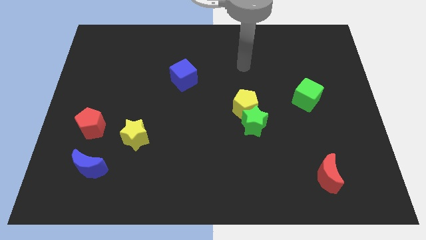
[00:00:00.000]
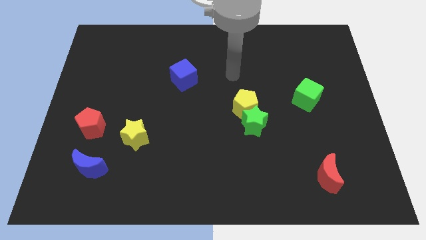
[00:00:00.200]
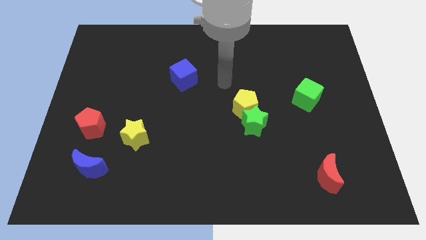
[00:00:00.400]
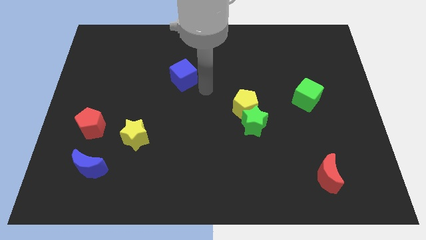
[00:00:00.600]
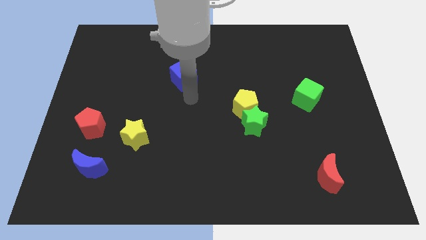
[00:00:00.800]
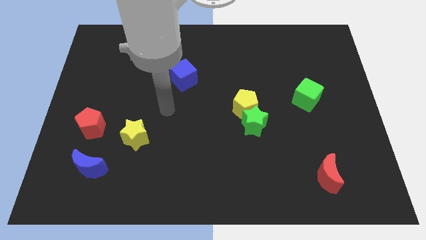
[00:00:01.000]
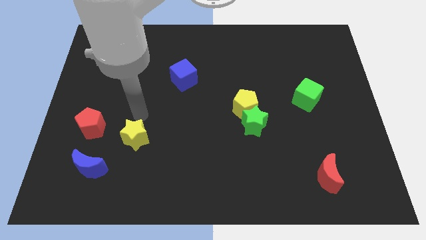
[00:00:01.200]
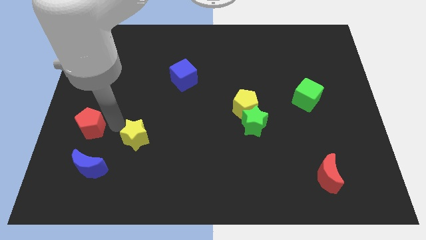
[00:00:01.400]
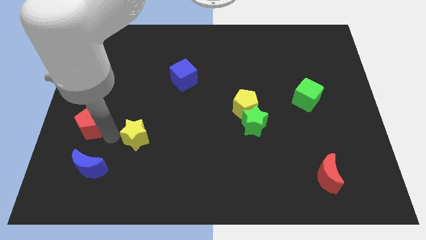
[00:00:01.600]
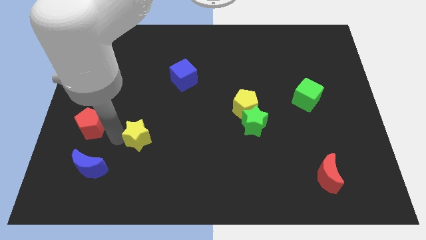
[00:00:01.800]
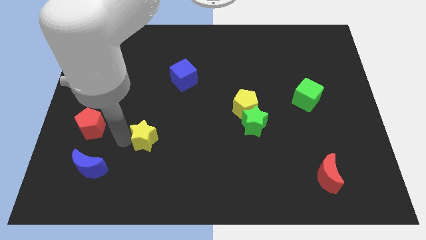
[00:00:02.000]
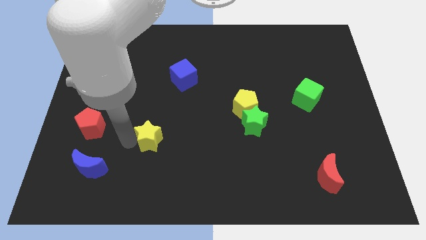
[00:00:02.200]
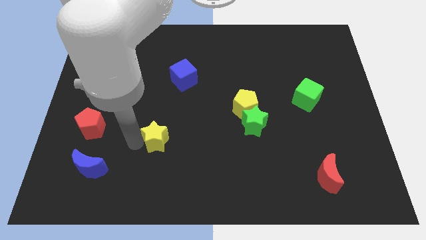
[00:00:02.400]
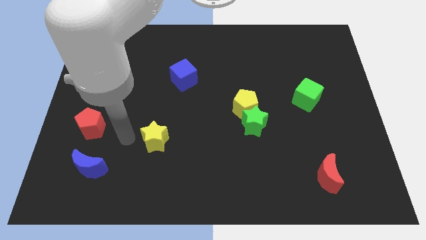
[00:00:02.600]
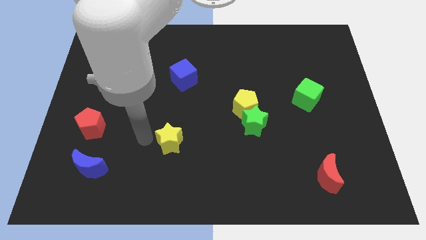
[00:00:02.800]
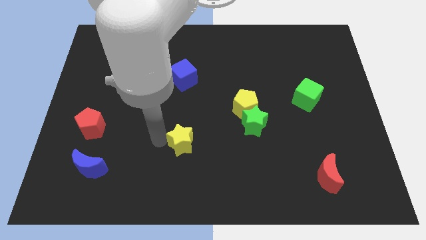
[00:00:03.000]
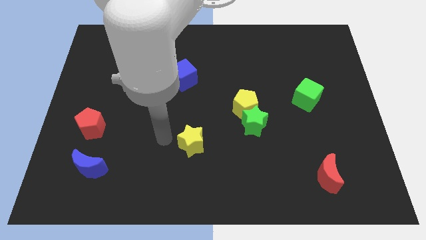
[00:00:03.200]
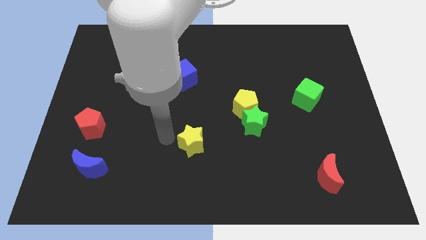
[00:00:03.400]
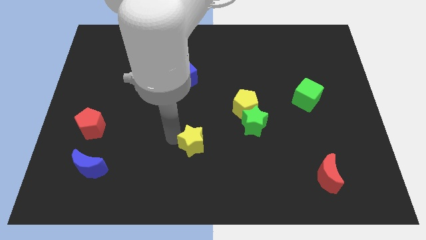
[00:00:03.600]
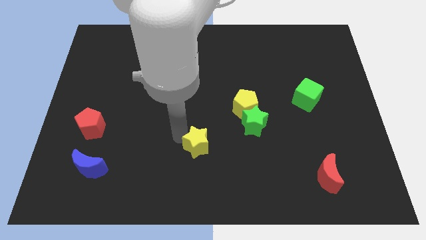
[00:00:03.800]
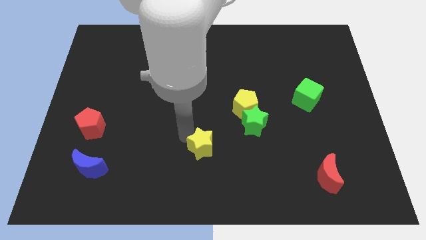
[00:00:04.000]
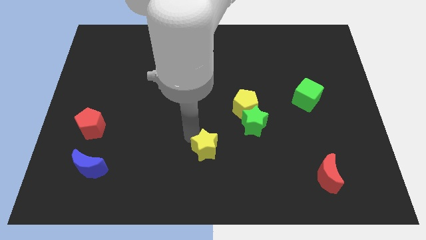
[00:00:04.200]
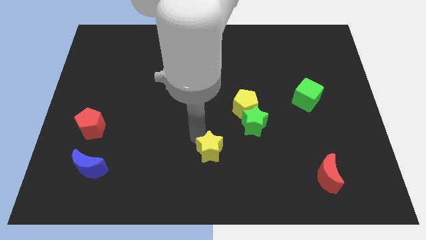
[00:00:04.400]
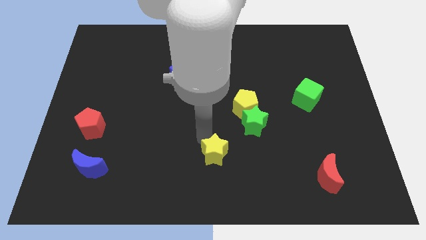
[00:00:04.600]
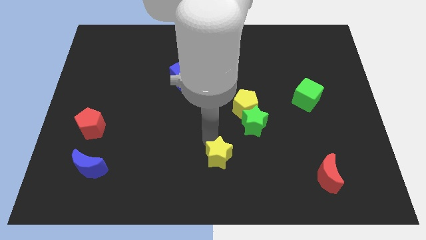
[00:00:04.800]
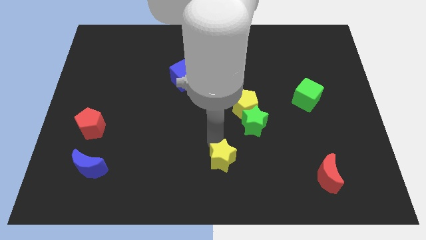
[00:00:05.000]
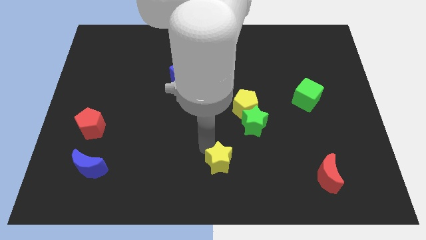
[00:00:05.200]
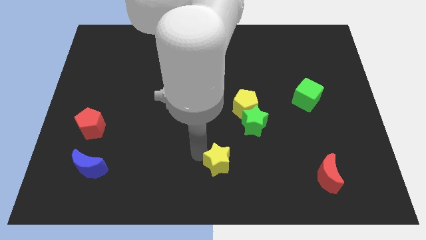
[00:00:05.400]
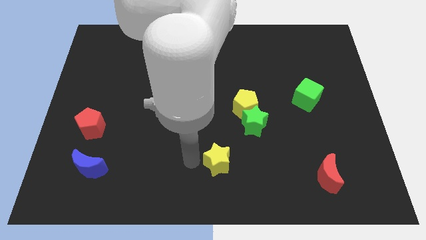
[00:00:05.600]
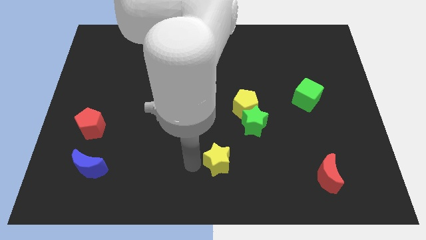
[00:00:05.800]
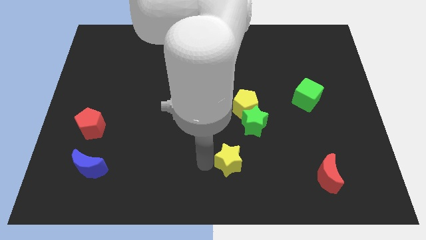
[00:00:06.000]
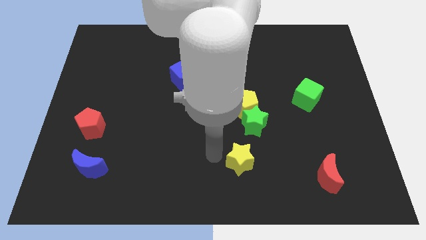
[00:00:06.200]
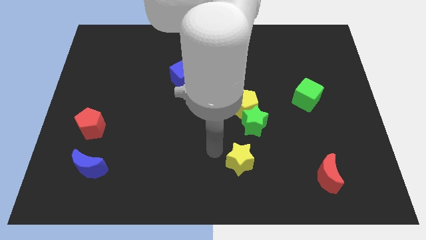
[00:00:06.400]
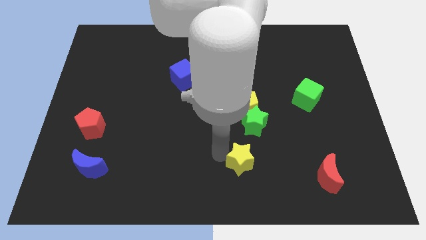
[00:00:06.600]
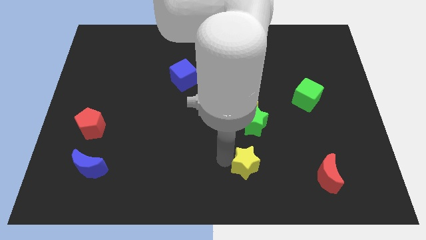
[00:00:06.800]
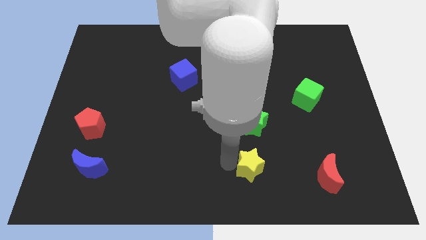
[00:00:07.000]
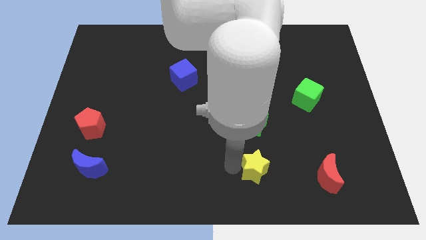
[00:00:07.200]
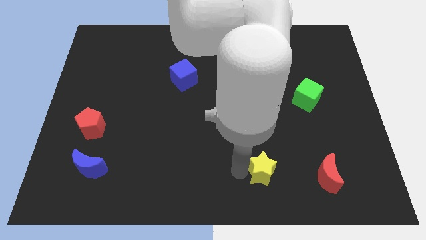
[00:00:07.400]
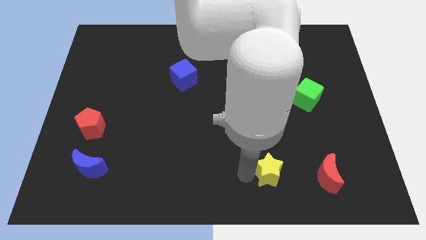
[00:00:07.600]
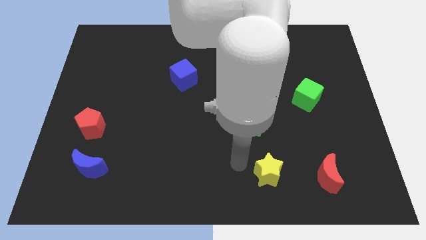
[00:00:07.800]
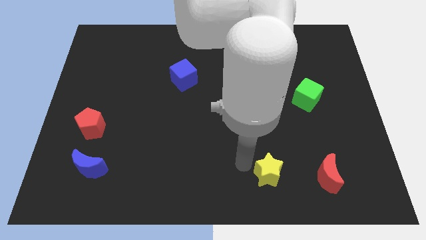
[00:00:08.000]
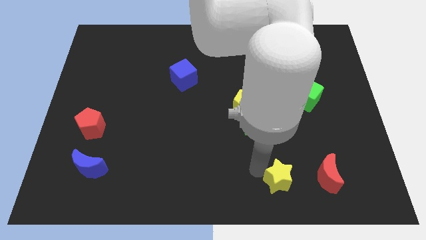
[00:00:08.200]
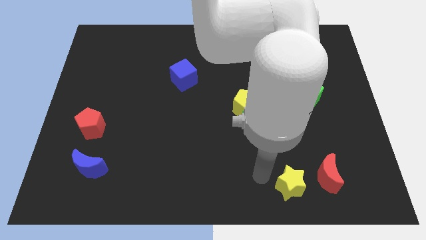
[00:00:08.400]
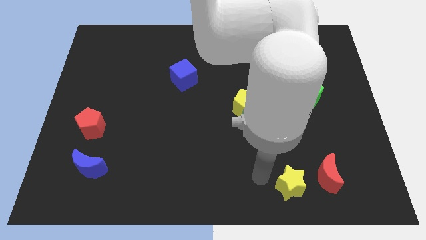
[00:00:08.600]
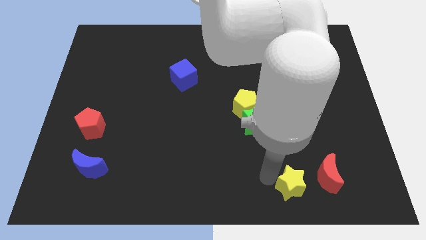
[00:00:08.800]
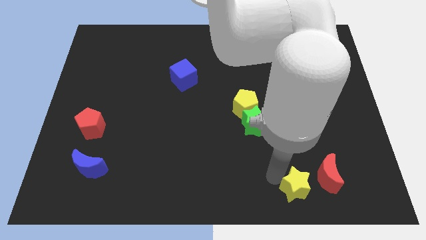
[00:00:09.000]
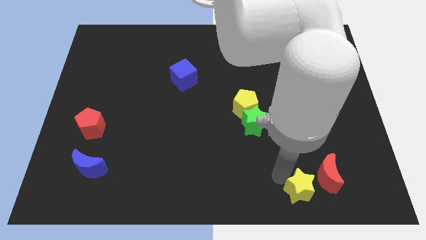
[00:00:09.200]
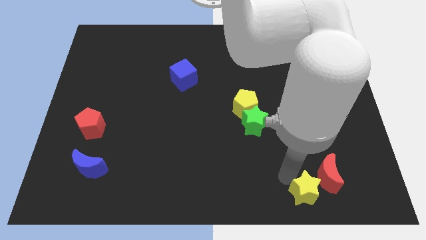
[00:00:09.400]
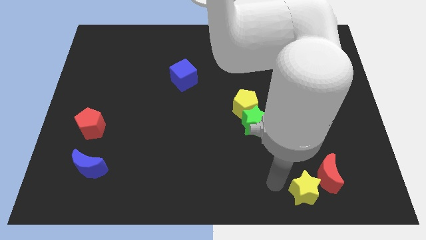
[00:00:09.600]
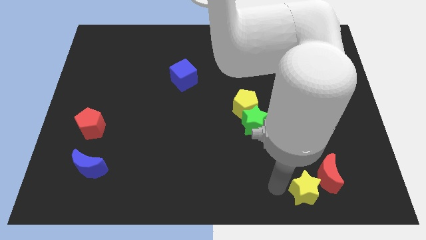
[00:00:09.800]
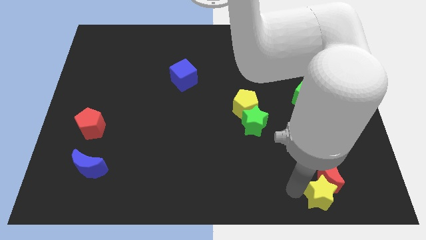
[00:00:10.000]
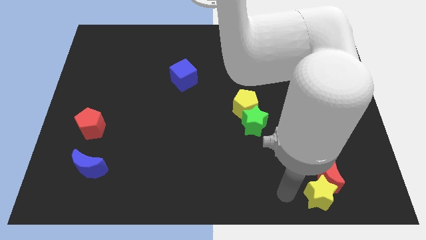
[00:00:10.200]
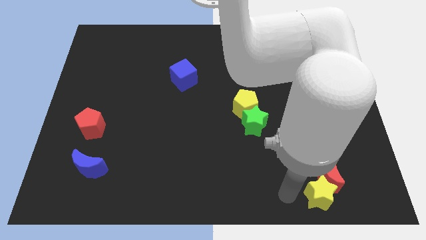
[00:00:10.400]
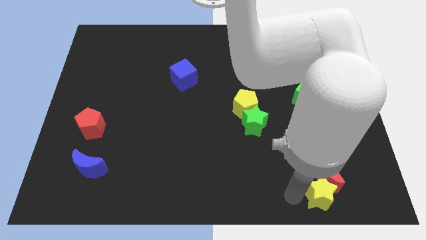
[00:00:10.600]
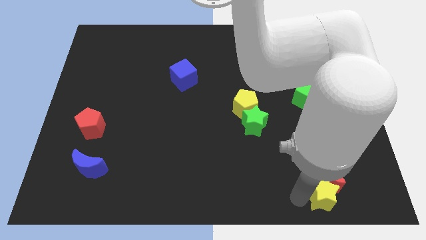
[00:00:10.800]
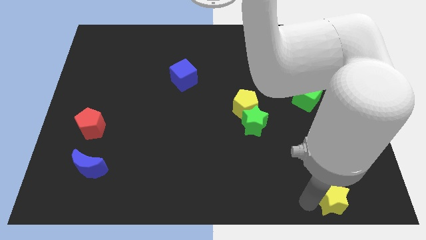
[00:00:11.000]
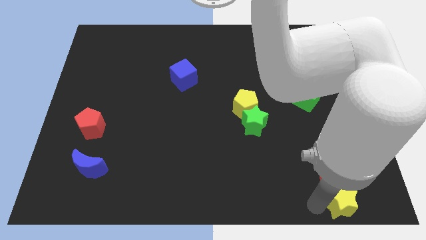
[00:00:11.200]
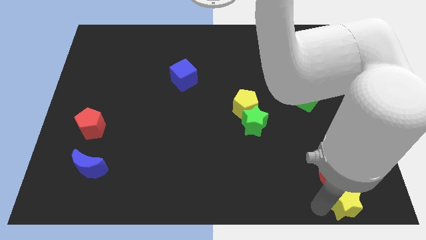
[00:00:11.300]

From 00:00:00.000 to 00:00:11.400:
move the yellow star to the bottom right corner

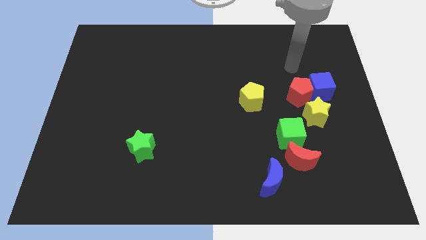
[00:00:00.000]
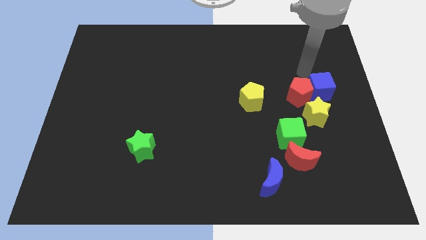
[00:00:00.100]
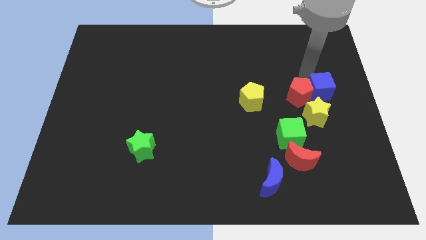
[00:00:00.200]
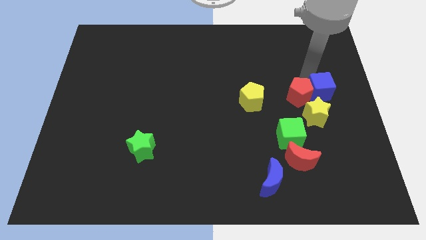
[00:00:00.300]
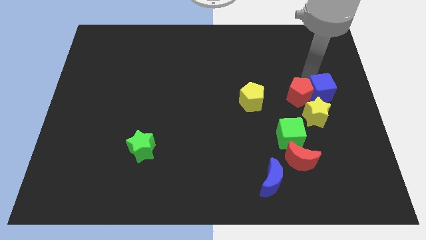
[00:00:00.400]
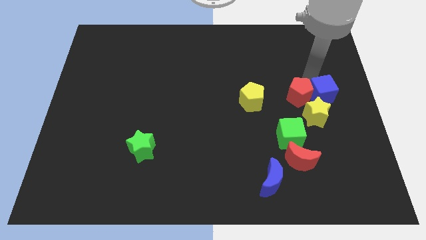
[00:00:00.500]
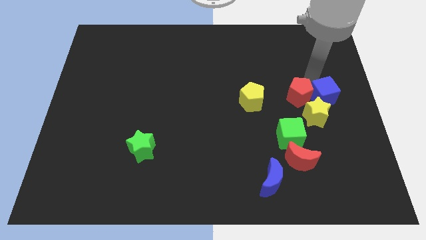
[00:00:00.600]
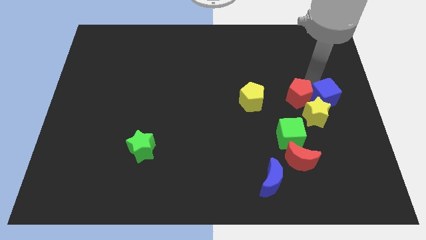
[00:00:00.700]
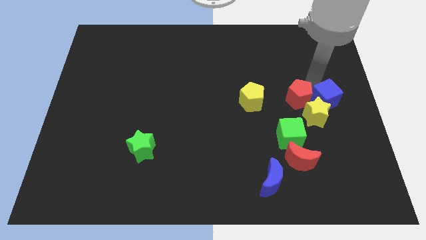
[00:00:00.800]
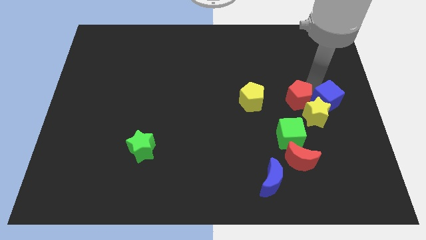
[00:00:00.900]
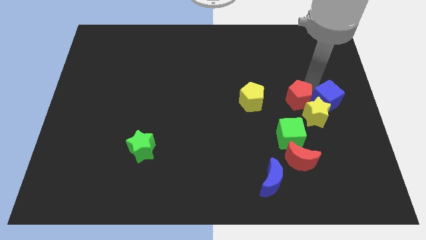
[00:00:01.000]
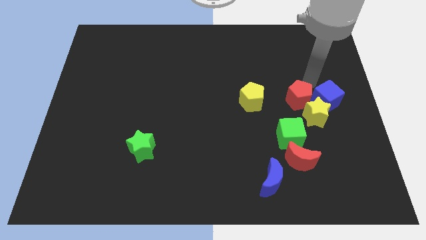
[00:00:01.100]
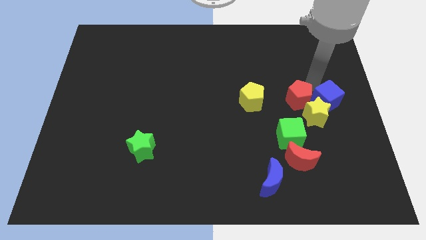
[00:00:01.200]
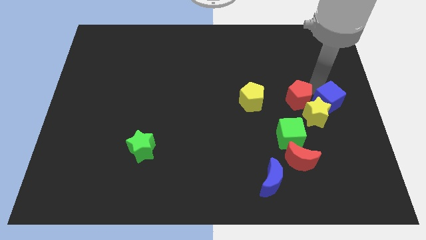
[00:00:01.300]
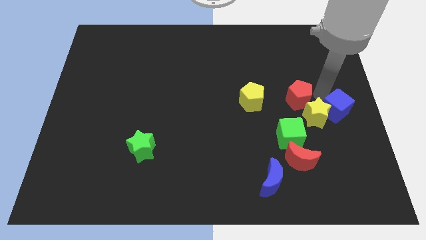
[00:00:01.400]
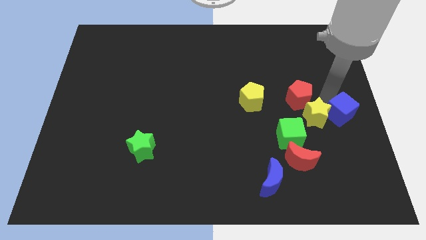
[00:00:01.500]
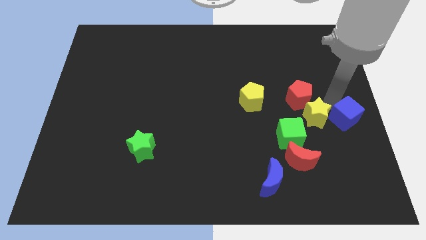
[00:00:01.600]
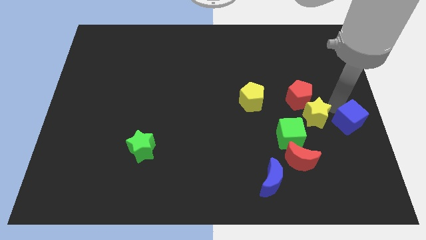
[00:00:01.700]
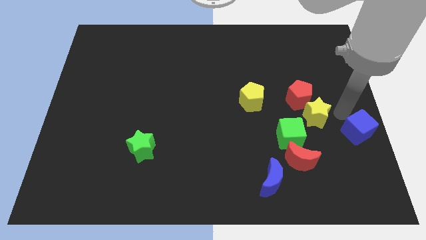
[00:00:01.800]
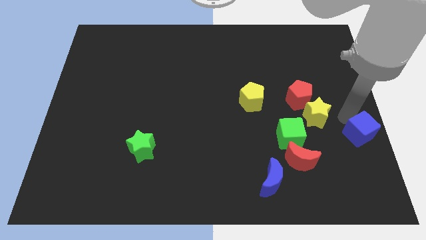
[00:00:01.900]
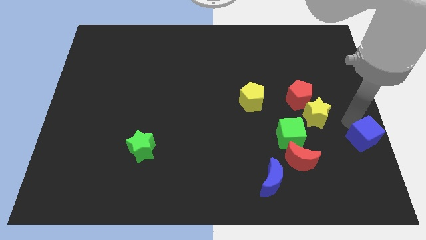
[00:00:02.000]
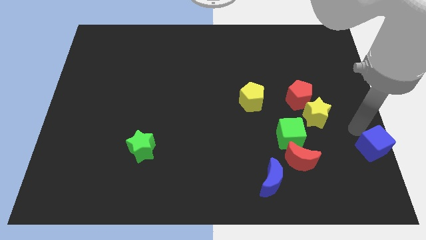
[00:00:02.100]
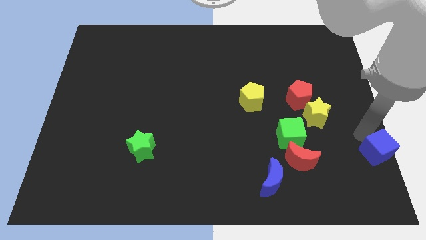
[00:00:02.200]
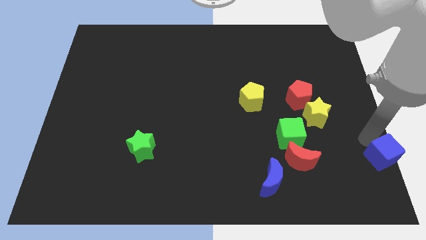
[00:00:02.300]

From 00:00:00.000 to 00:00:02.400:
put the blue cube to the bottom right corner
